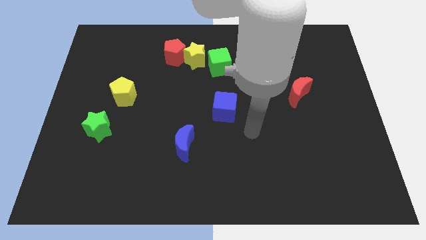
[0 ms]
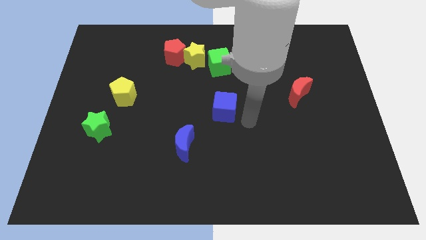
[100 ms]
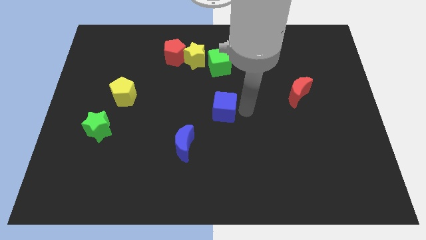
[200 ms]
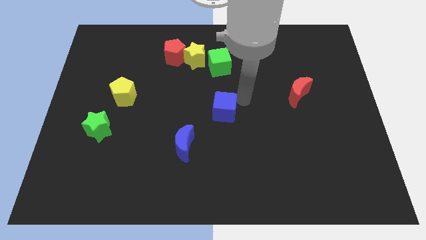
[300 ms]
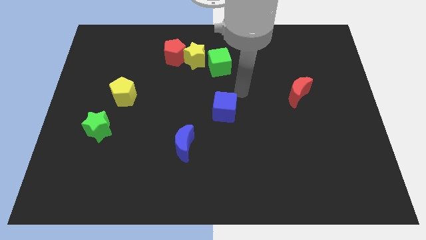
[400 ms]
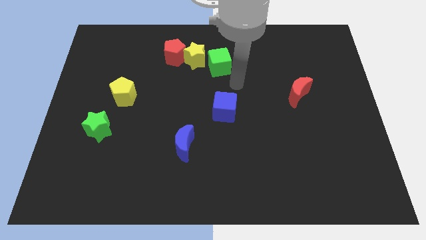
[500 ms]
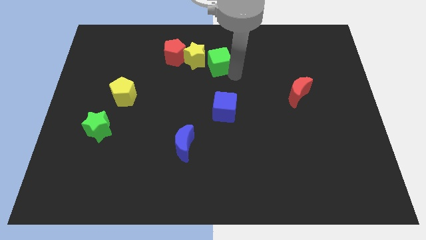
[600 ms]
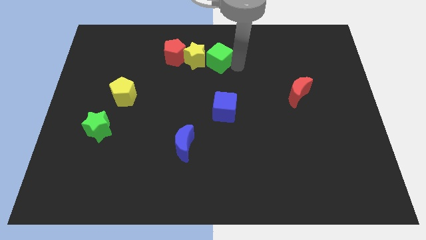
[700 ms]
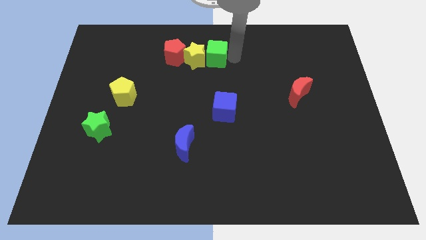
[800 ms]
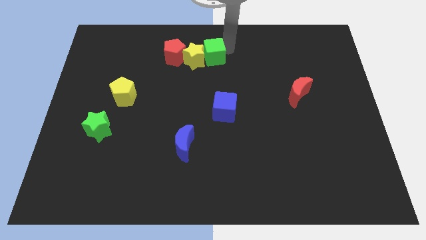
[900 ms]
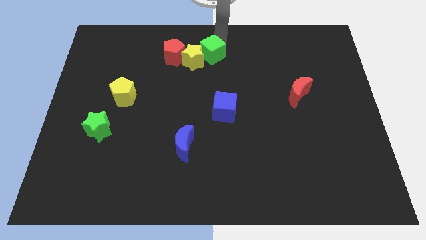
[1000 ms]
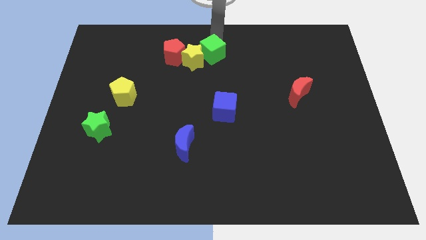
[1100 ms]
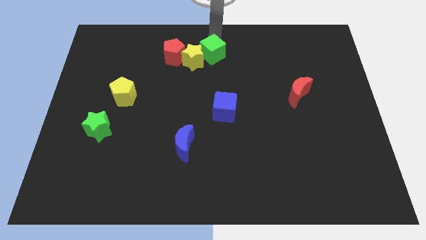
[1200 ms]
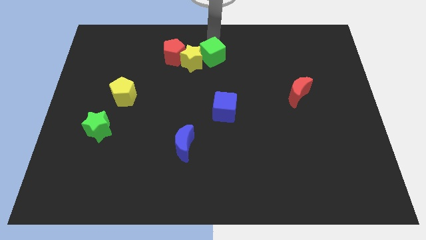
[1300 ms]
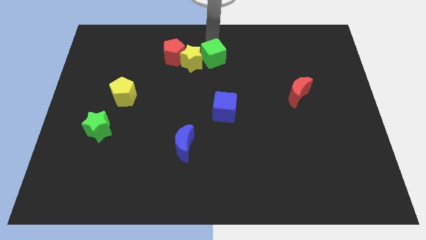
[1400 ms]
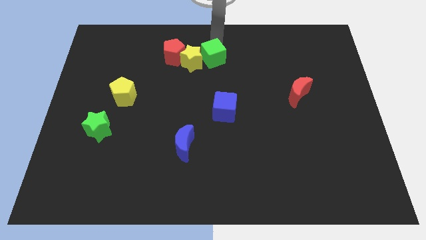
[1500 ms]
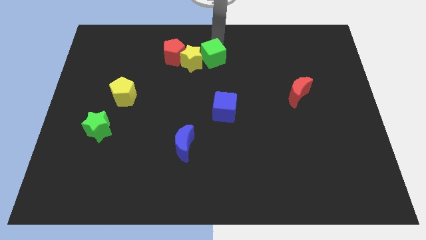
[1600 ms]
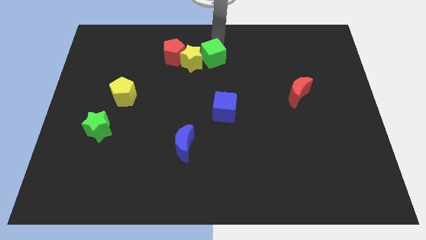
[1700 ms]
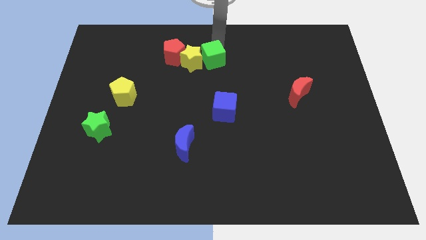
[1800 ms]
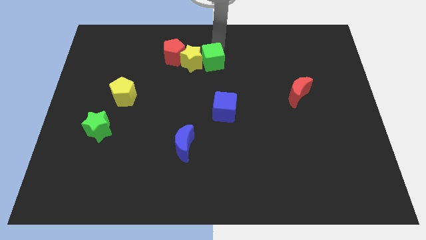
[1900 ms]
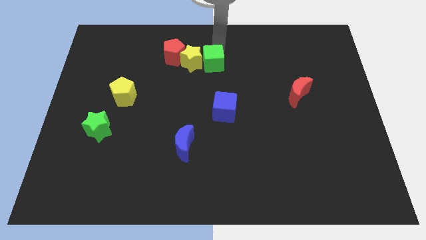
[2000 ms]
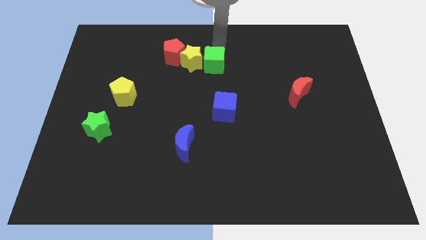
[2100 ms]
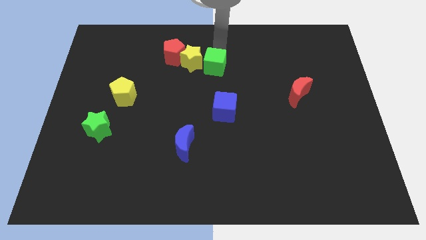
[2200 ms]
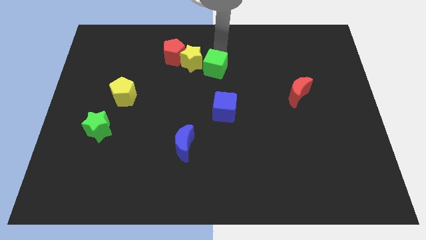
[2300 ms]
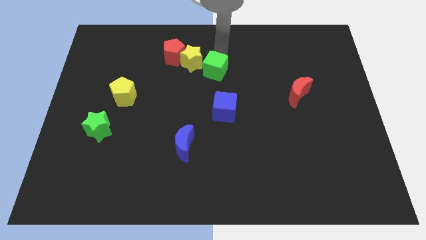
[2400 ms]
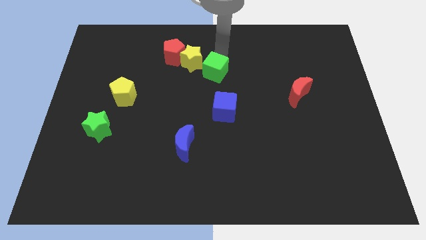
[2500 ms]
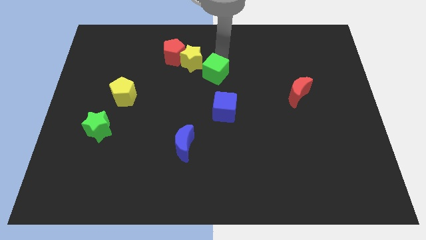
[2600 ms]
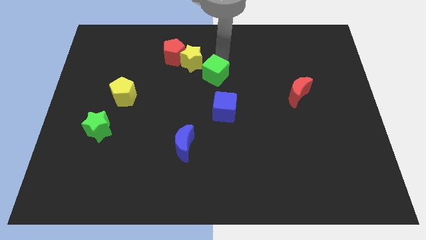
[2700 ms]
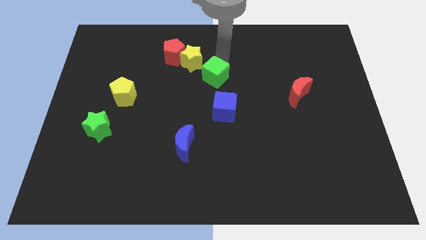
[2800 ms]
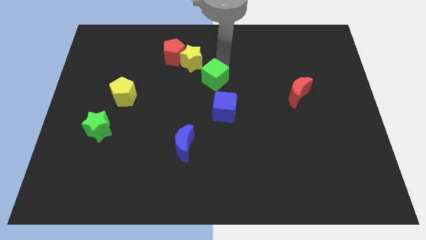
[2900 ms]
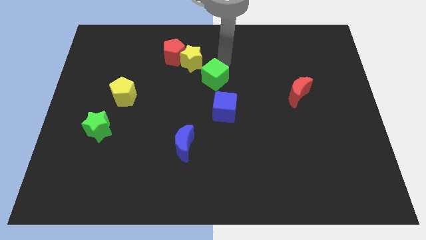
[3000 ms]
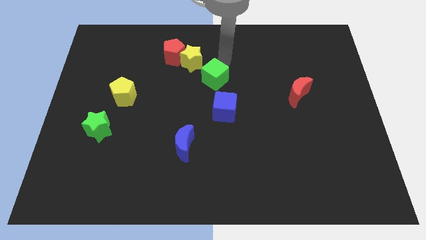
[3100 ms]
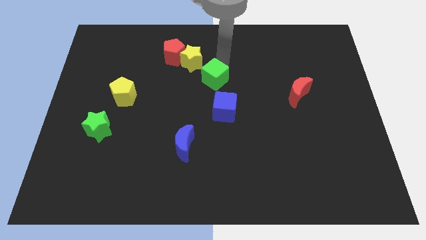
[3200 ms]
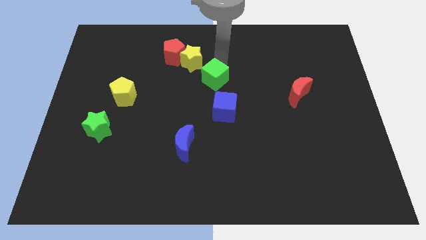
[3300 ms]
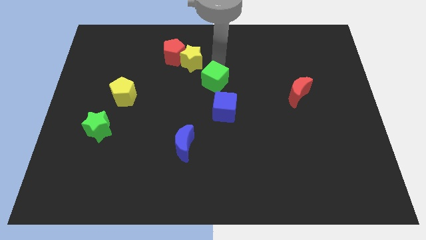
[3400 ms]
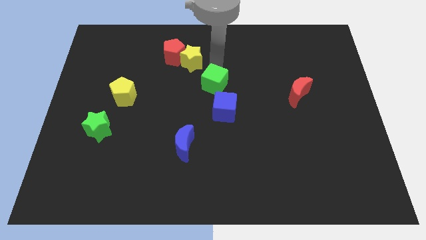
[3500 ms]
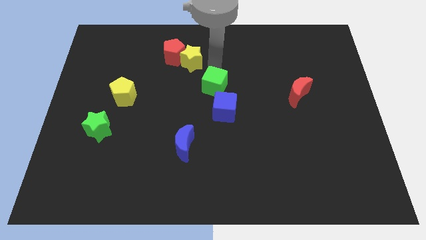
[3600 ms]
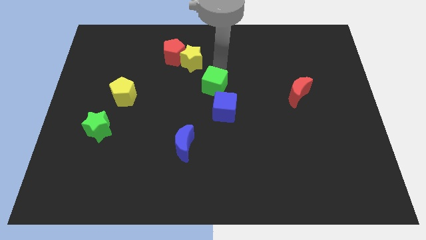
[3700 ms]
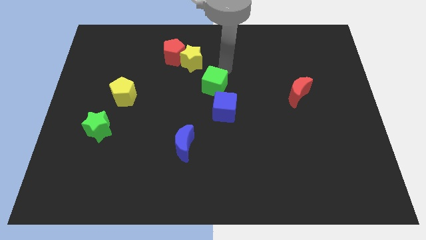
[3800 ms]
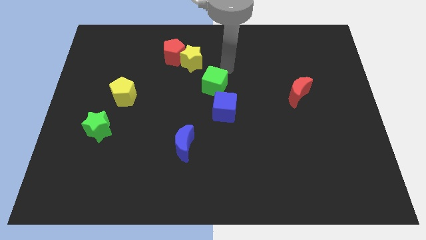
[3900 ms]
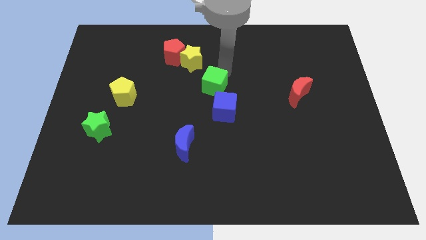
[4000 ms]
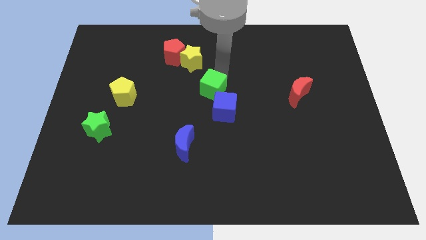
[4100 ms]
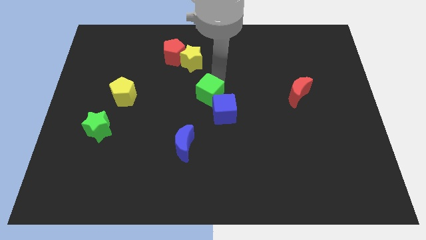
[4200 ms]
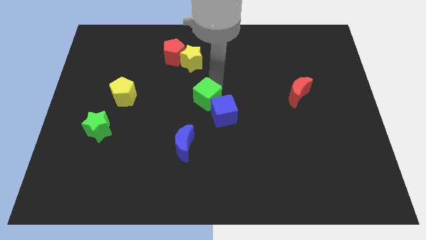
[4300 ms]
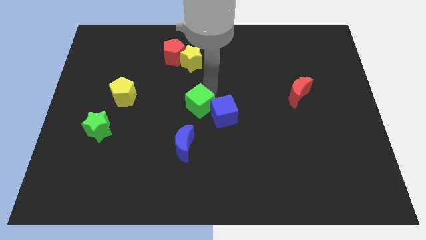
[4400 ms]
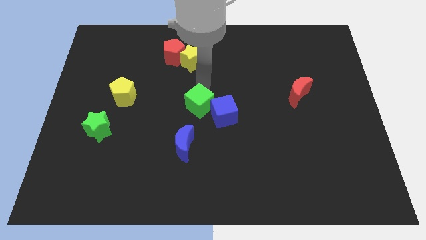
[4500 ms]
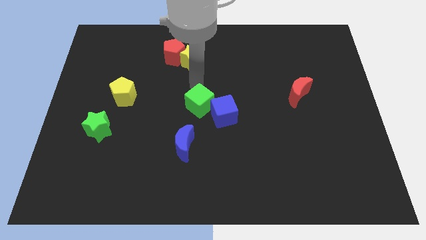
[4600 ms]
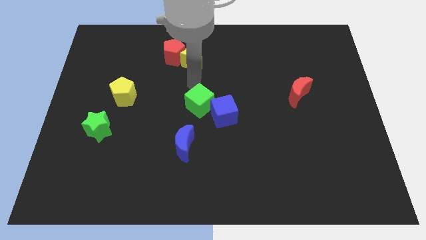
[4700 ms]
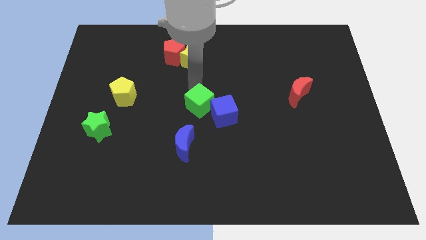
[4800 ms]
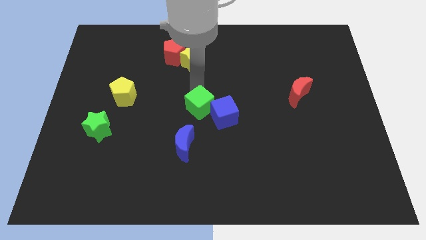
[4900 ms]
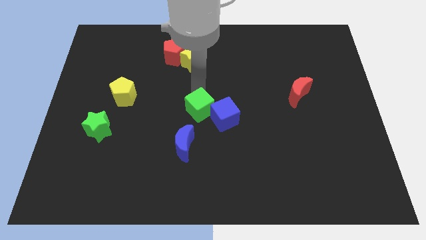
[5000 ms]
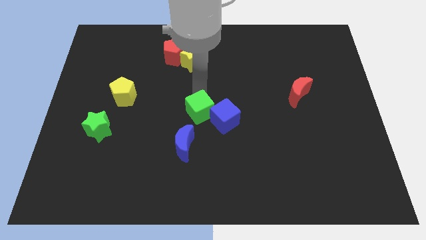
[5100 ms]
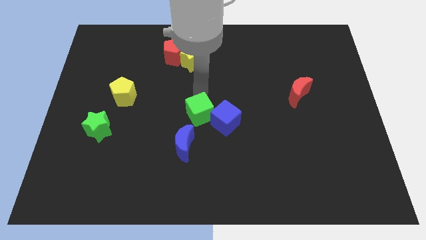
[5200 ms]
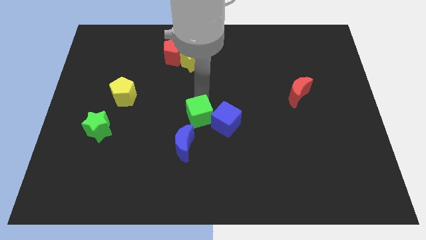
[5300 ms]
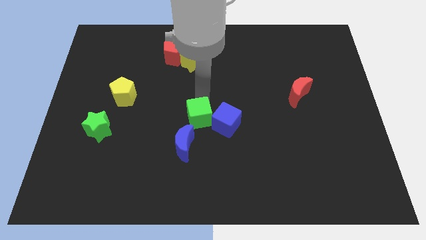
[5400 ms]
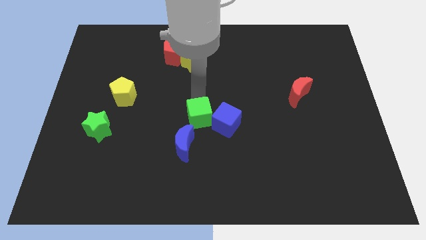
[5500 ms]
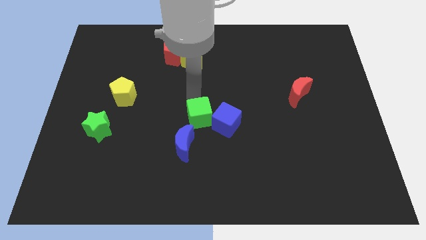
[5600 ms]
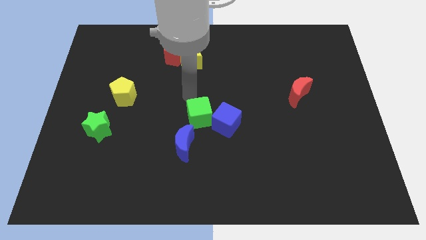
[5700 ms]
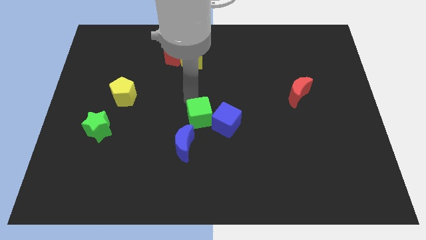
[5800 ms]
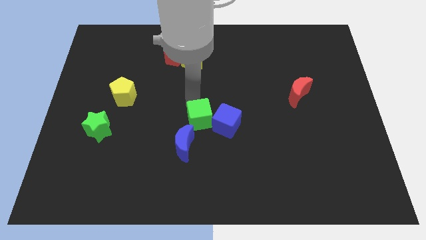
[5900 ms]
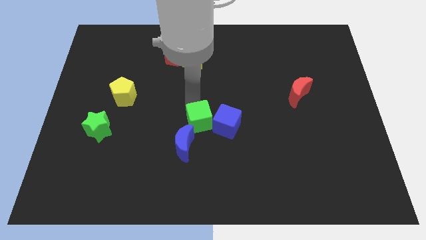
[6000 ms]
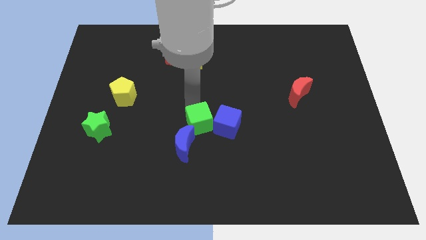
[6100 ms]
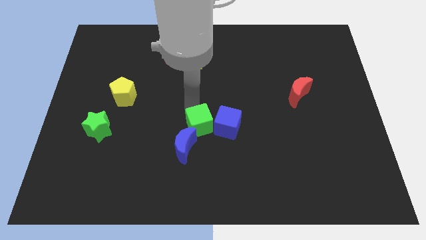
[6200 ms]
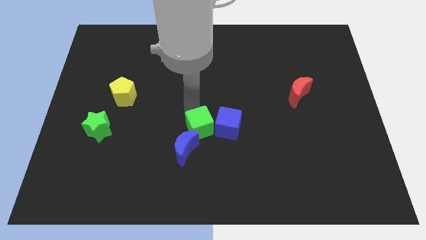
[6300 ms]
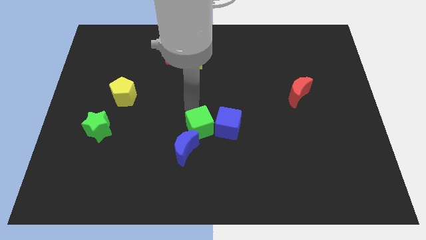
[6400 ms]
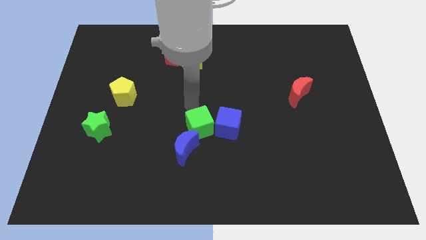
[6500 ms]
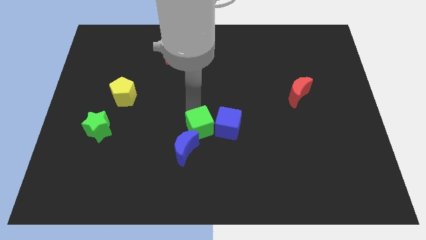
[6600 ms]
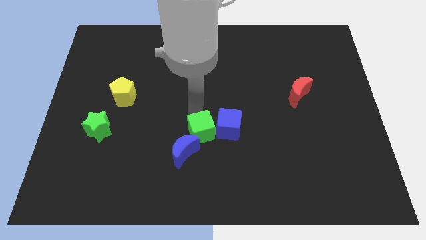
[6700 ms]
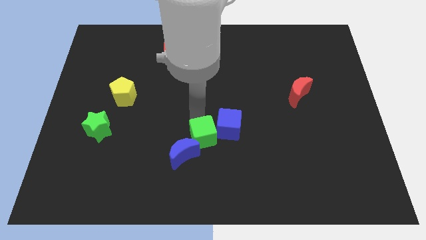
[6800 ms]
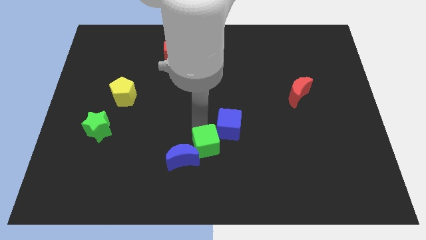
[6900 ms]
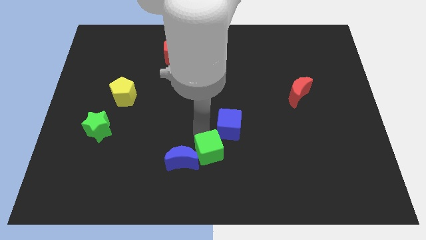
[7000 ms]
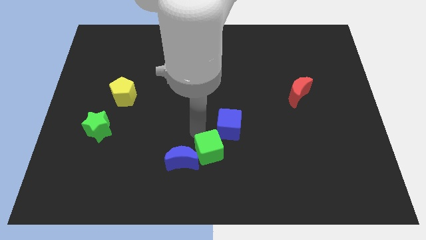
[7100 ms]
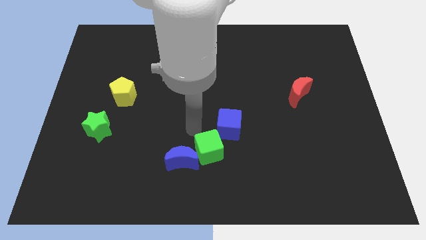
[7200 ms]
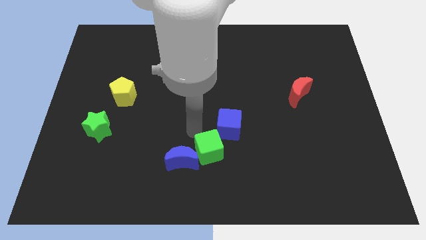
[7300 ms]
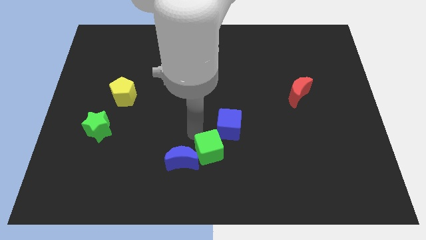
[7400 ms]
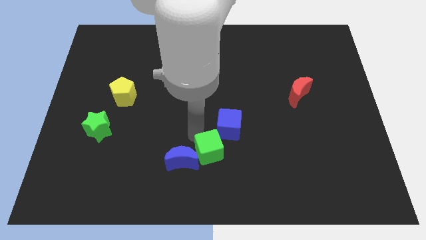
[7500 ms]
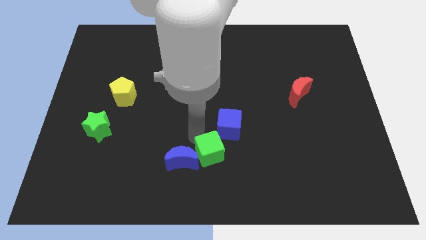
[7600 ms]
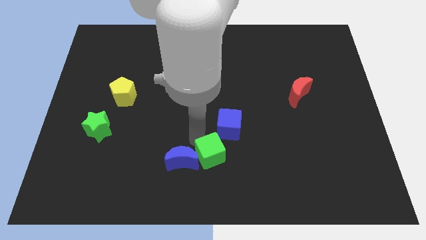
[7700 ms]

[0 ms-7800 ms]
put the green cube to the bottom
